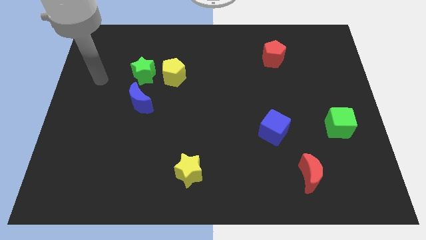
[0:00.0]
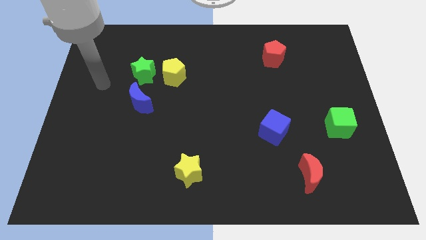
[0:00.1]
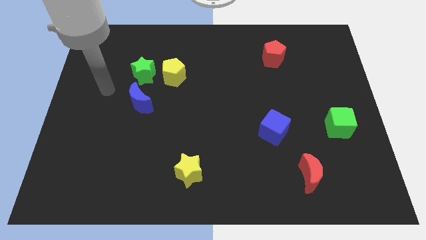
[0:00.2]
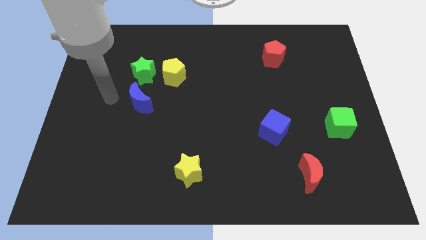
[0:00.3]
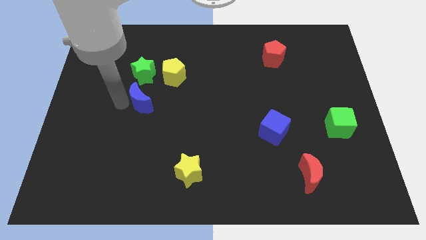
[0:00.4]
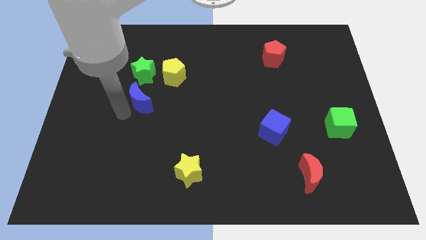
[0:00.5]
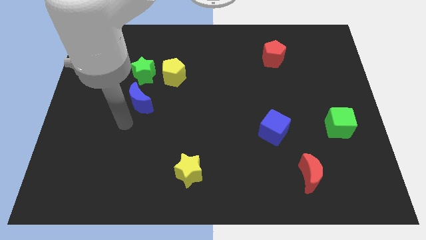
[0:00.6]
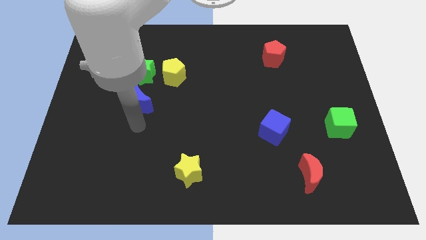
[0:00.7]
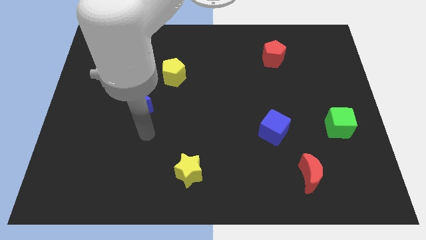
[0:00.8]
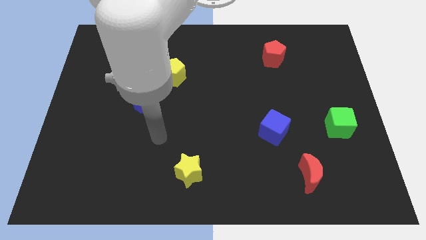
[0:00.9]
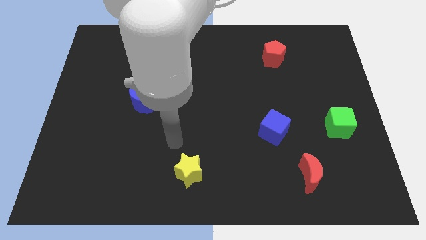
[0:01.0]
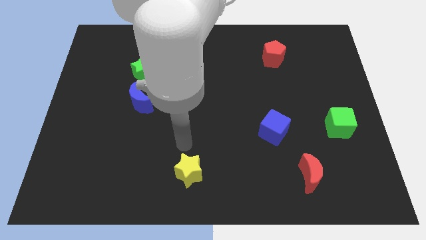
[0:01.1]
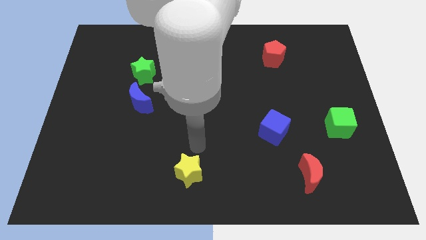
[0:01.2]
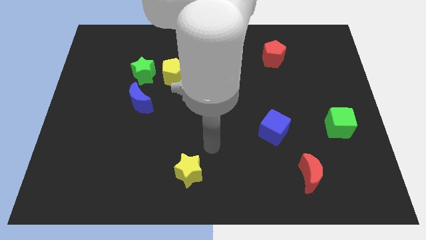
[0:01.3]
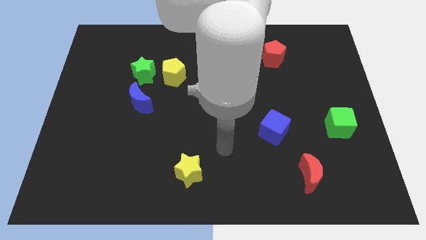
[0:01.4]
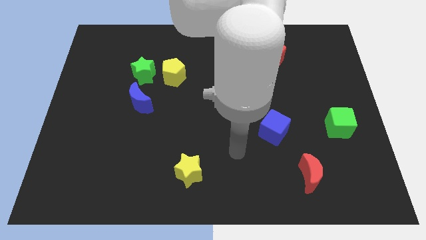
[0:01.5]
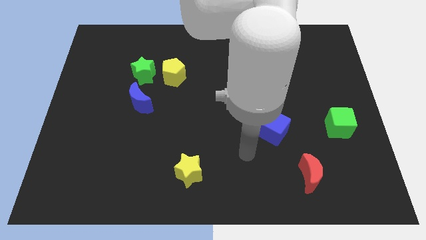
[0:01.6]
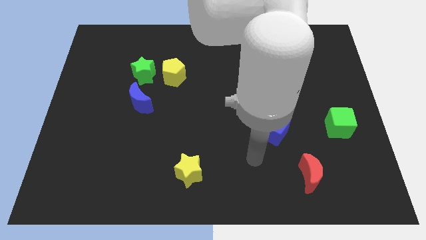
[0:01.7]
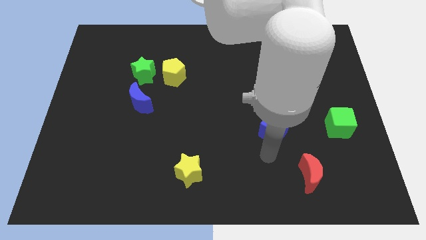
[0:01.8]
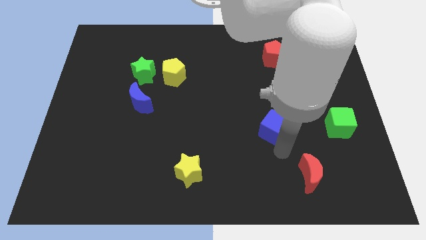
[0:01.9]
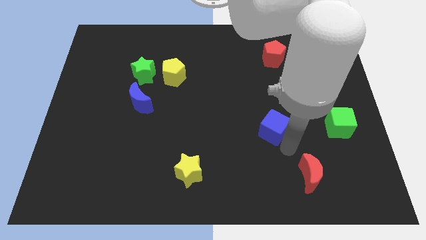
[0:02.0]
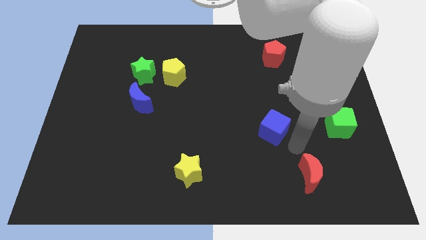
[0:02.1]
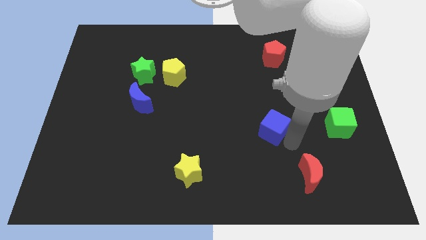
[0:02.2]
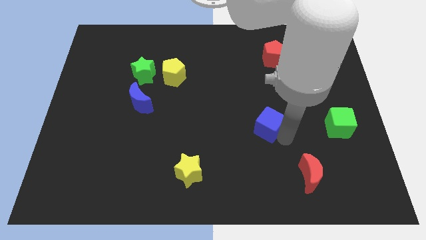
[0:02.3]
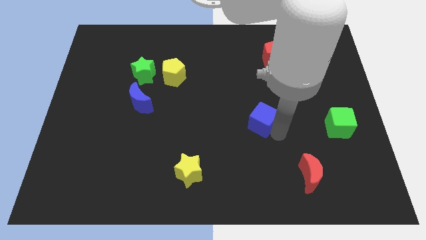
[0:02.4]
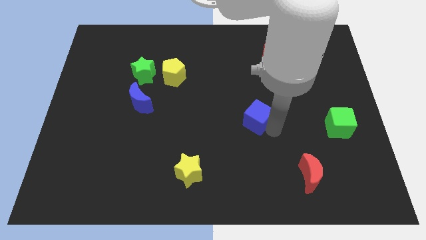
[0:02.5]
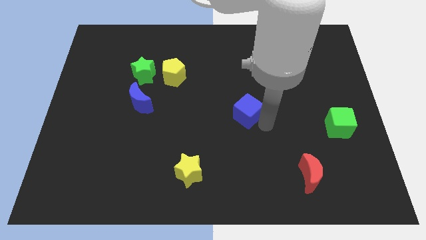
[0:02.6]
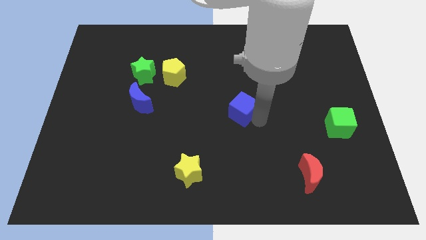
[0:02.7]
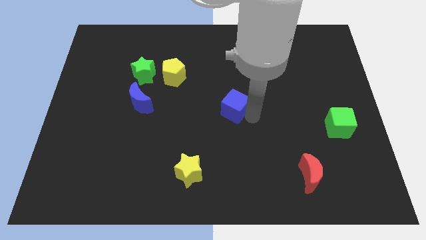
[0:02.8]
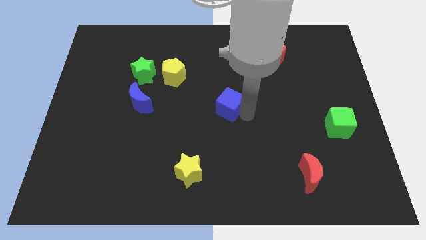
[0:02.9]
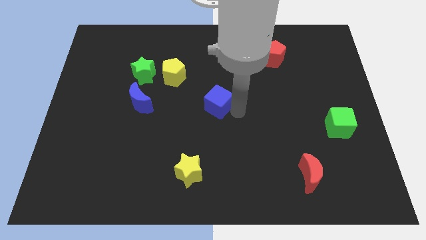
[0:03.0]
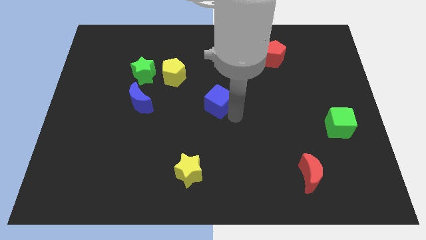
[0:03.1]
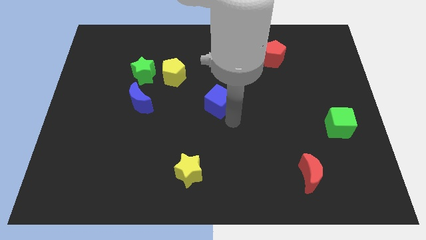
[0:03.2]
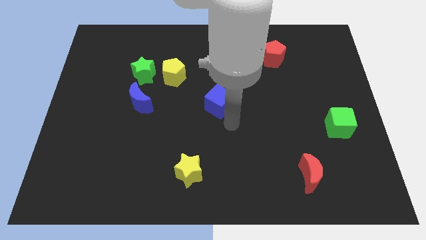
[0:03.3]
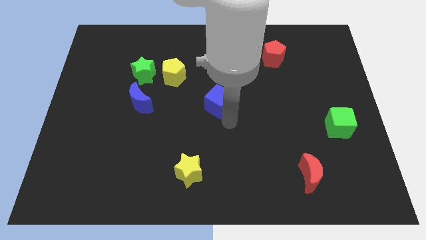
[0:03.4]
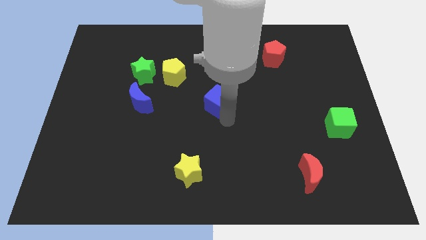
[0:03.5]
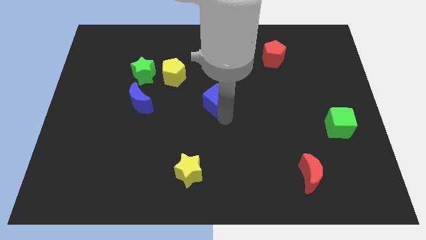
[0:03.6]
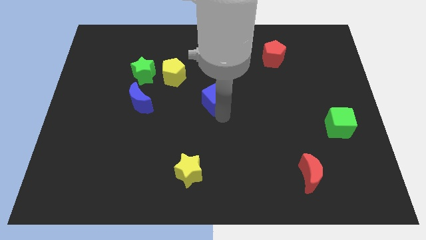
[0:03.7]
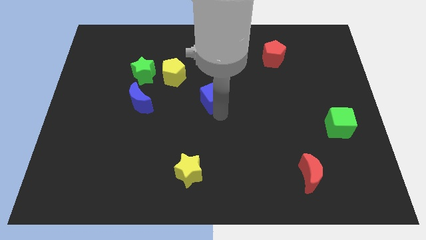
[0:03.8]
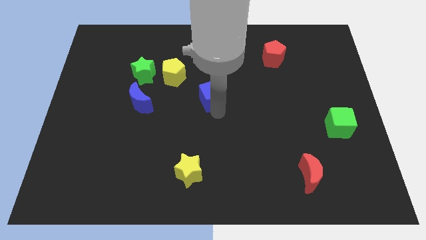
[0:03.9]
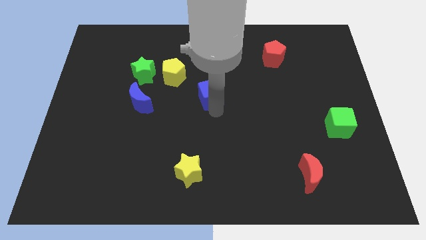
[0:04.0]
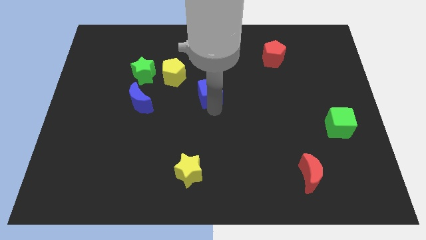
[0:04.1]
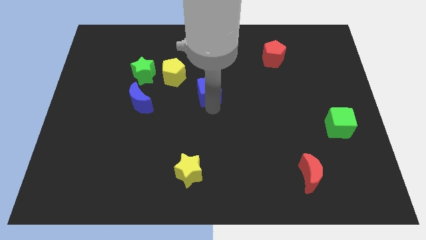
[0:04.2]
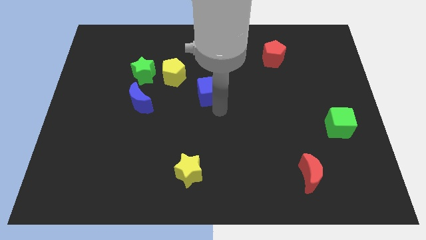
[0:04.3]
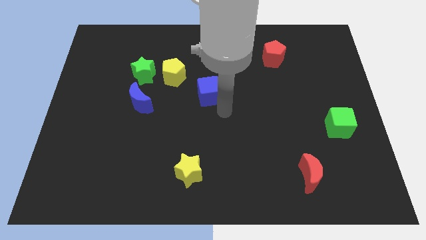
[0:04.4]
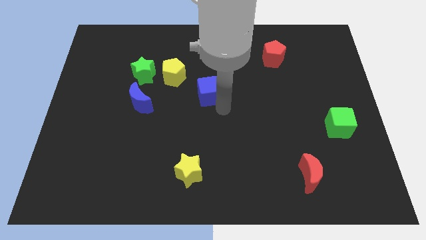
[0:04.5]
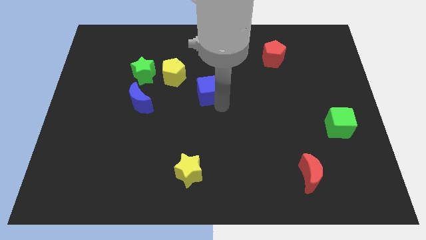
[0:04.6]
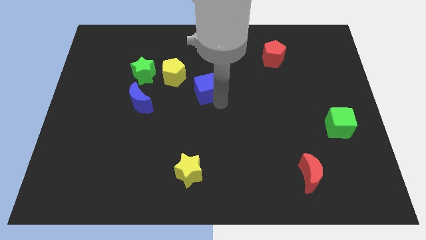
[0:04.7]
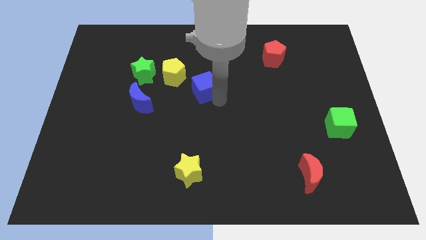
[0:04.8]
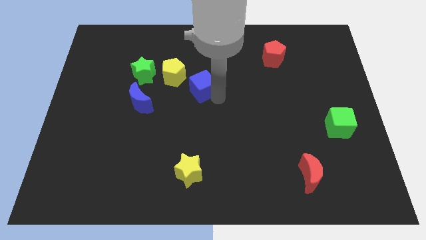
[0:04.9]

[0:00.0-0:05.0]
push the blue cube diagonally upwards and to the left

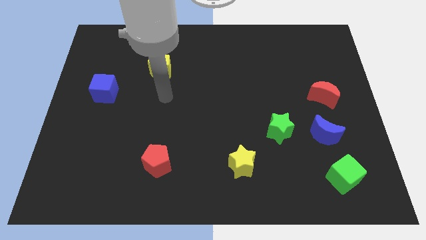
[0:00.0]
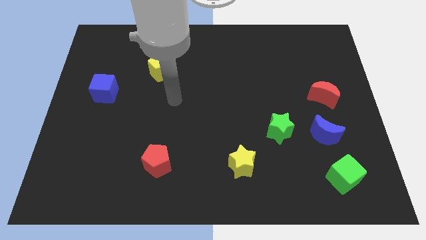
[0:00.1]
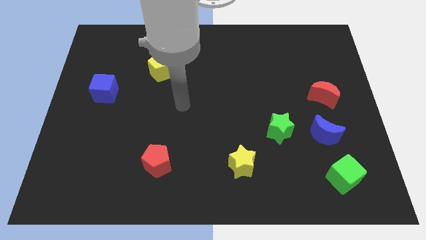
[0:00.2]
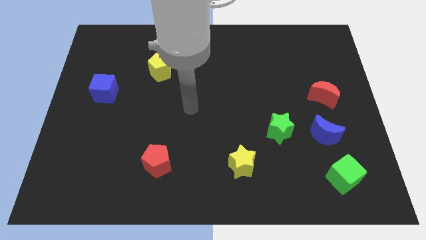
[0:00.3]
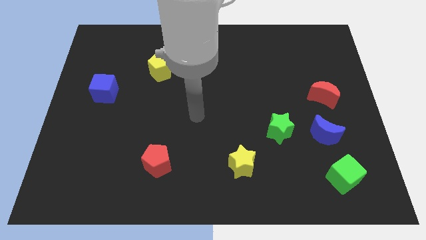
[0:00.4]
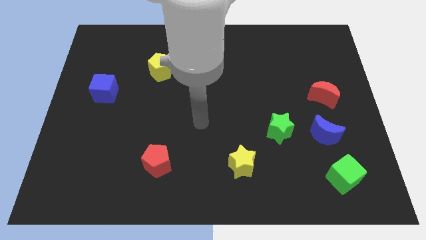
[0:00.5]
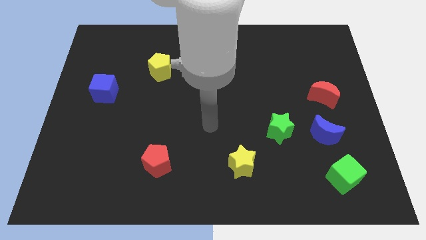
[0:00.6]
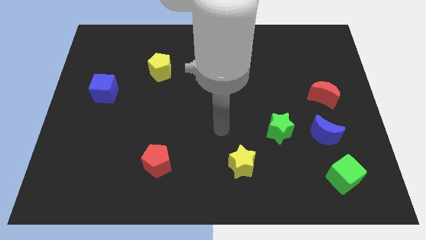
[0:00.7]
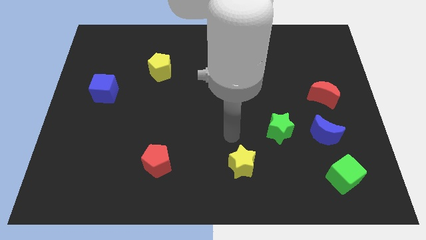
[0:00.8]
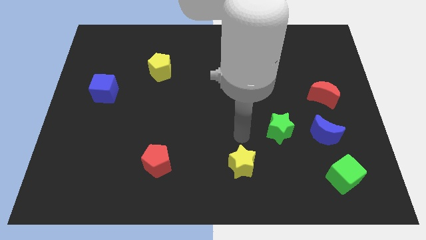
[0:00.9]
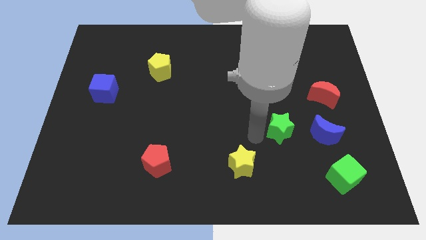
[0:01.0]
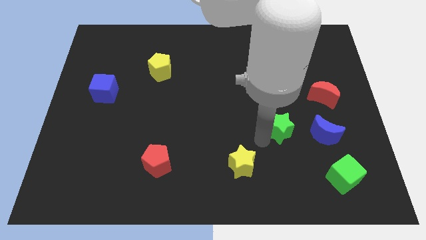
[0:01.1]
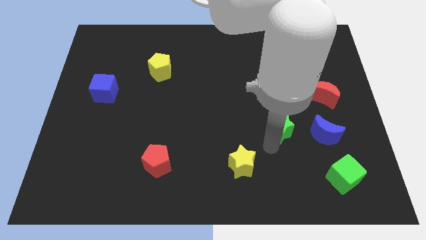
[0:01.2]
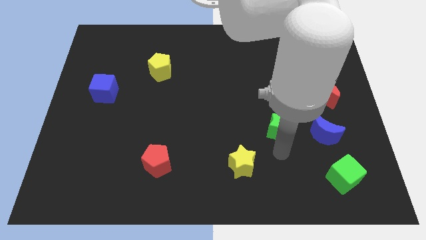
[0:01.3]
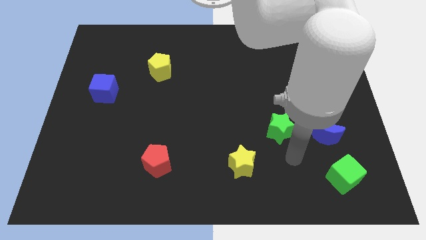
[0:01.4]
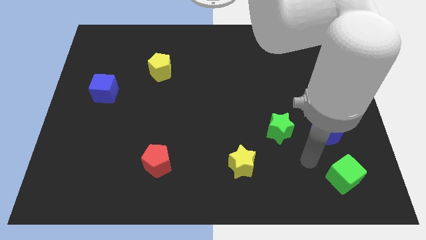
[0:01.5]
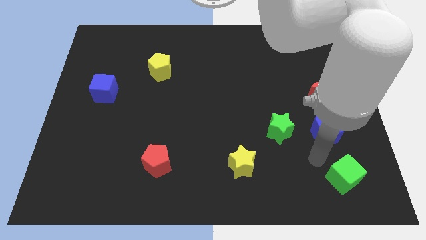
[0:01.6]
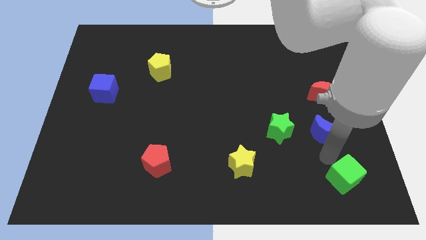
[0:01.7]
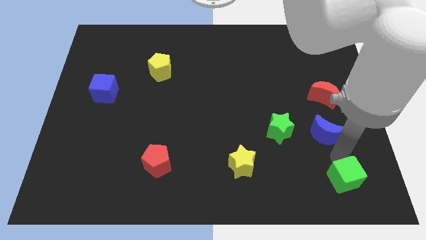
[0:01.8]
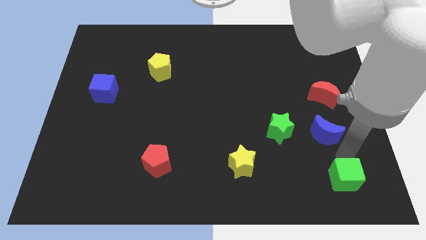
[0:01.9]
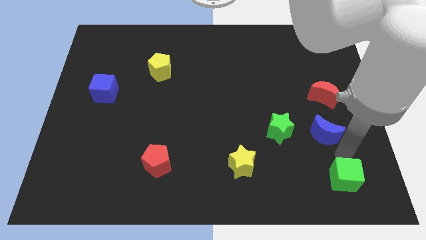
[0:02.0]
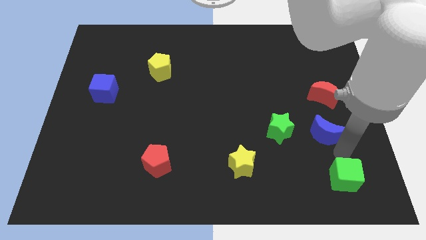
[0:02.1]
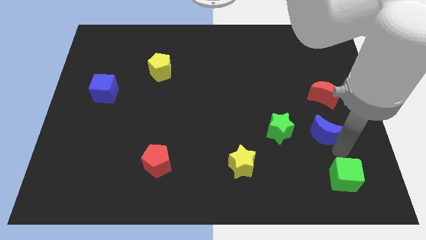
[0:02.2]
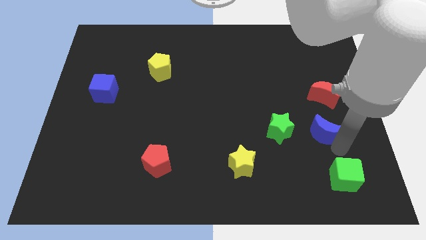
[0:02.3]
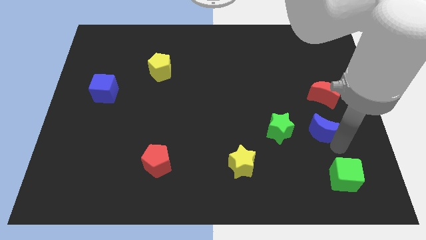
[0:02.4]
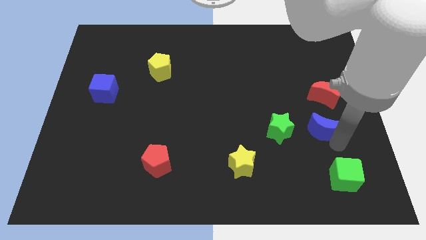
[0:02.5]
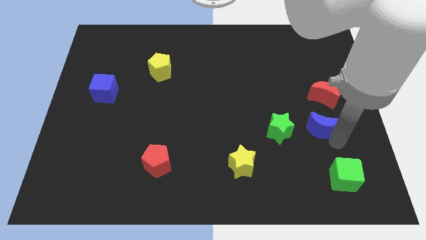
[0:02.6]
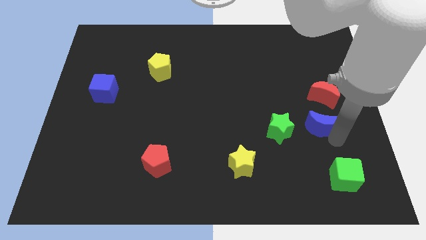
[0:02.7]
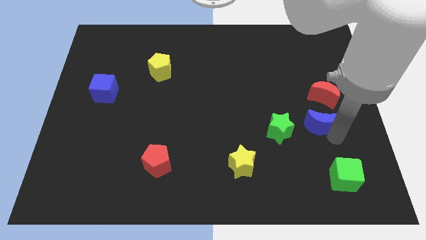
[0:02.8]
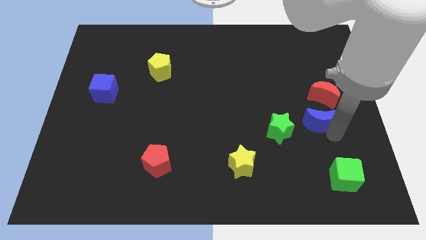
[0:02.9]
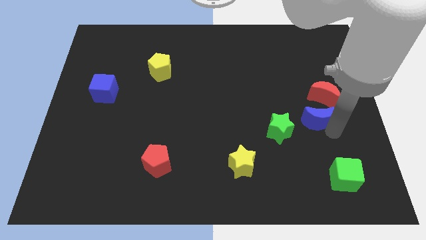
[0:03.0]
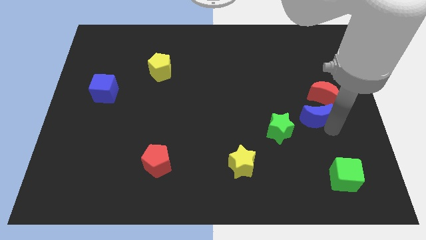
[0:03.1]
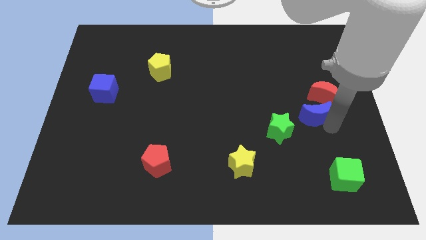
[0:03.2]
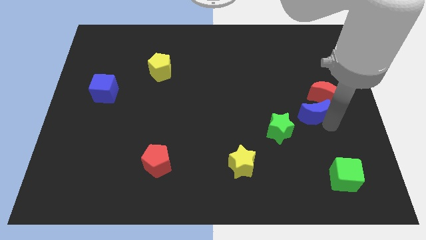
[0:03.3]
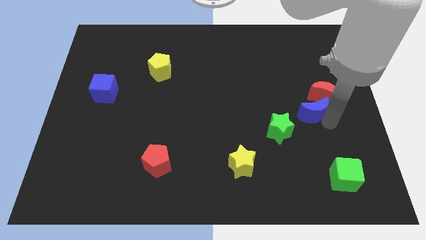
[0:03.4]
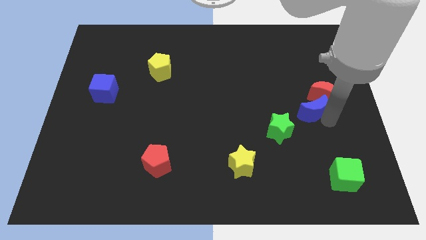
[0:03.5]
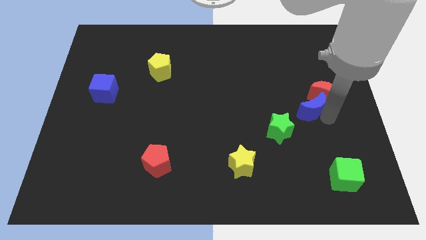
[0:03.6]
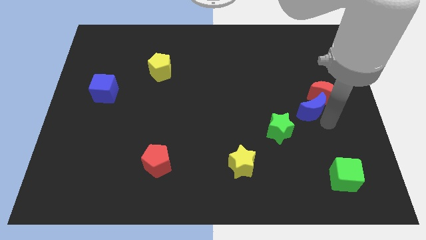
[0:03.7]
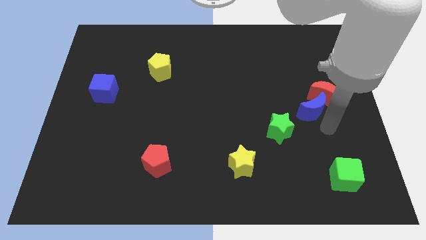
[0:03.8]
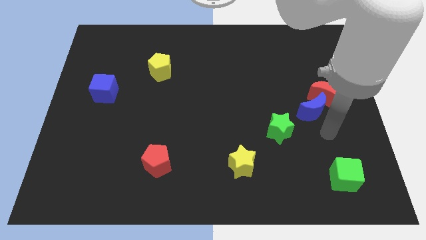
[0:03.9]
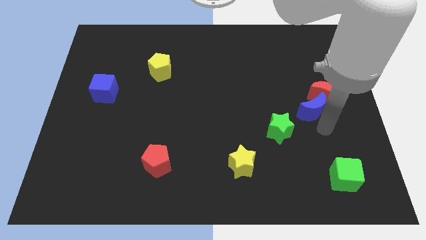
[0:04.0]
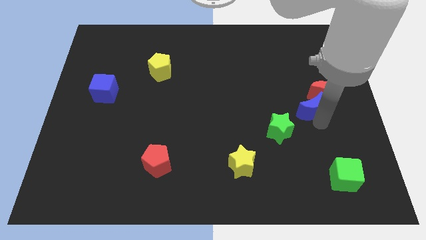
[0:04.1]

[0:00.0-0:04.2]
slightly move the blue moon upwards
